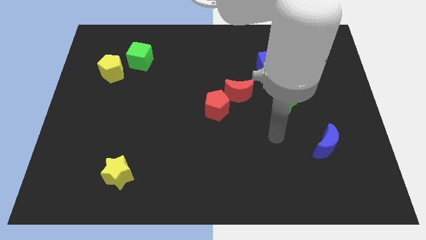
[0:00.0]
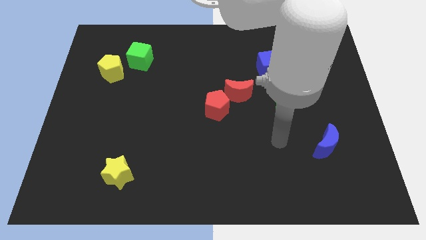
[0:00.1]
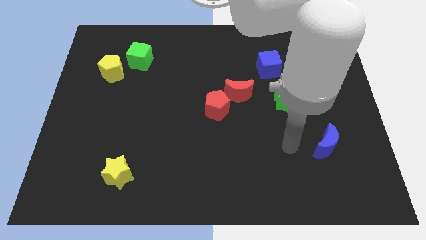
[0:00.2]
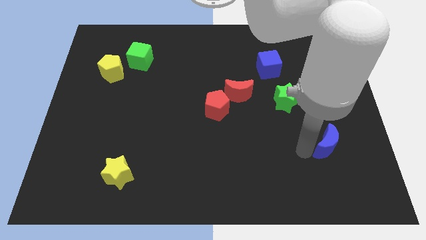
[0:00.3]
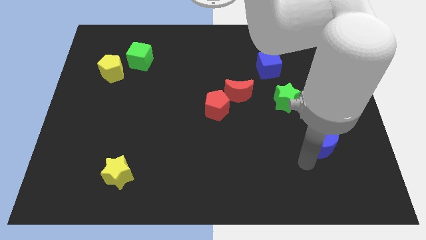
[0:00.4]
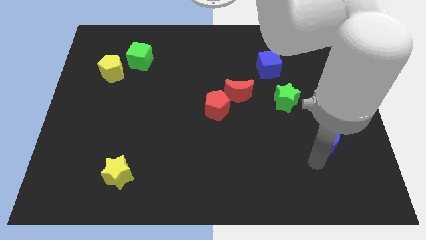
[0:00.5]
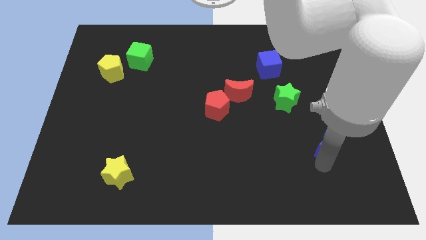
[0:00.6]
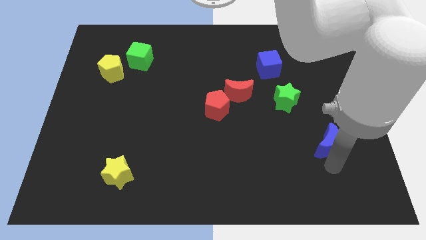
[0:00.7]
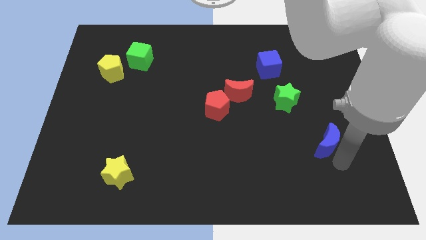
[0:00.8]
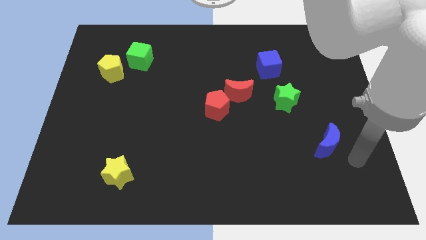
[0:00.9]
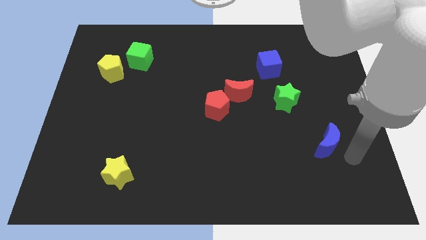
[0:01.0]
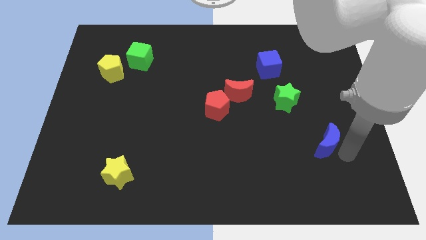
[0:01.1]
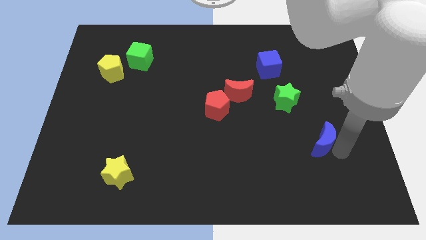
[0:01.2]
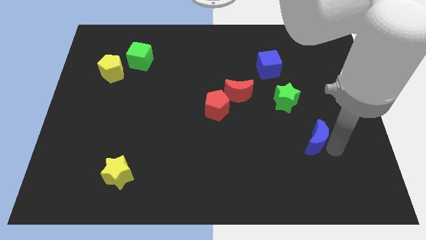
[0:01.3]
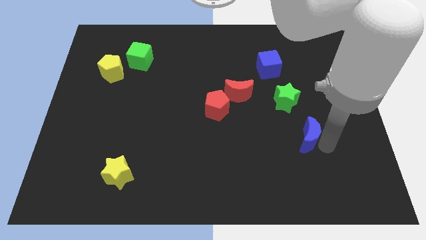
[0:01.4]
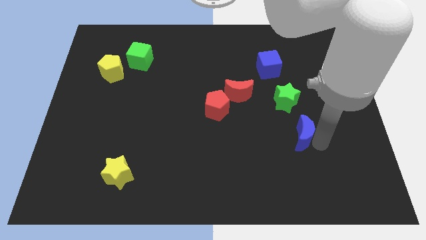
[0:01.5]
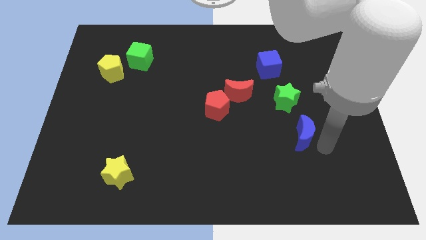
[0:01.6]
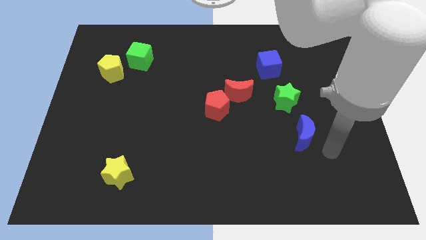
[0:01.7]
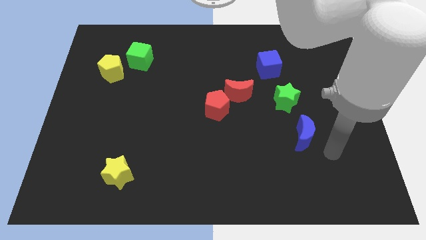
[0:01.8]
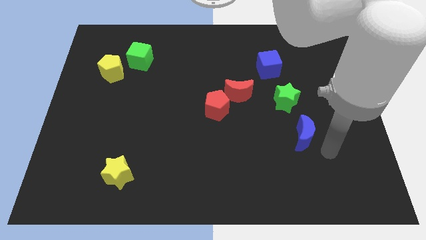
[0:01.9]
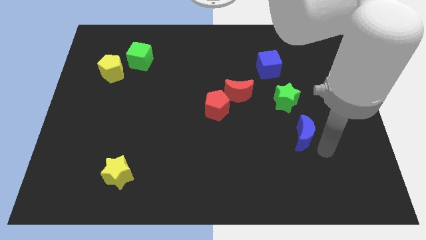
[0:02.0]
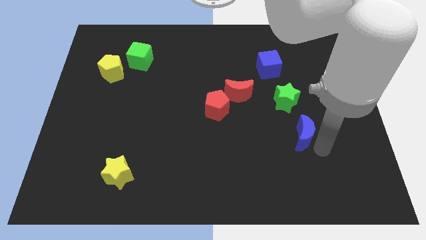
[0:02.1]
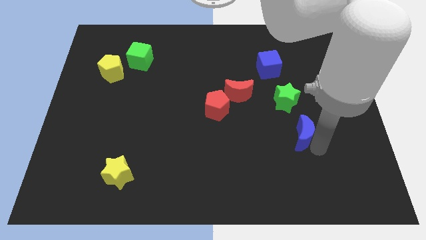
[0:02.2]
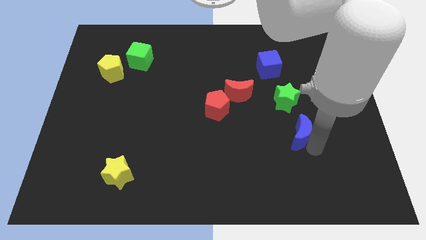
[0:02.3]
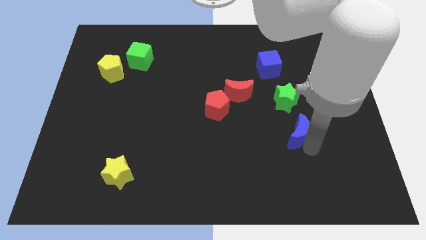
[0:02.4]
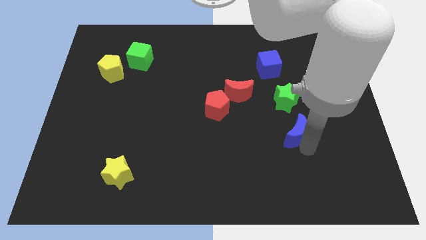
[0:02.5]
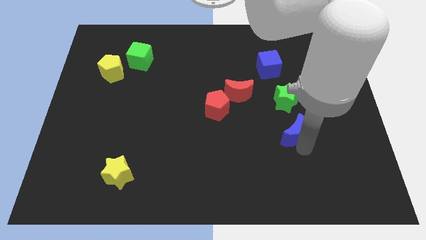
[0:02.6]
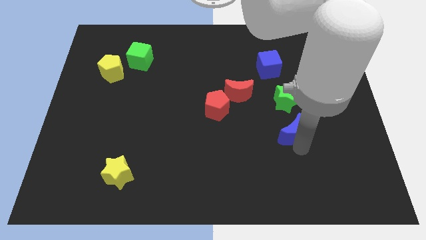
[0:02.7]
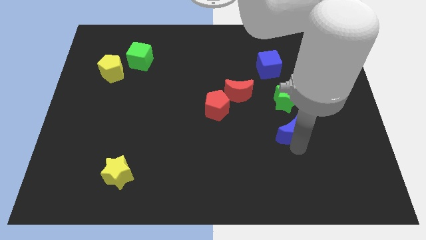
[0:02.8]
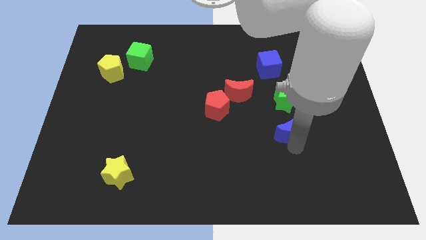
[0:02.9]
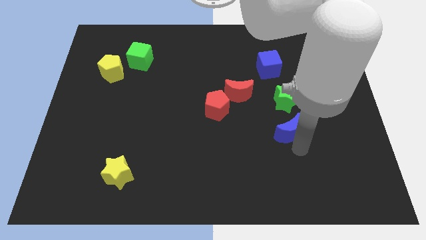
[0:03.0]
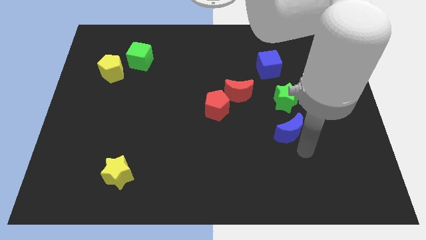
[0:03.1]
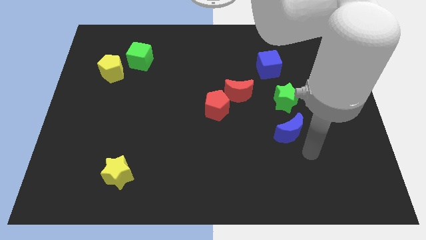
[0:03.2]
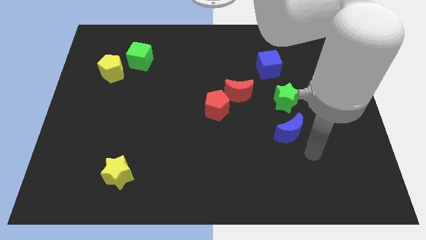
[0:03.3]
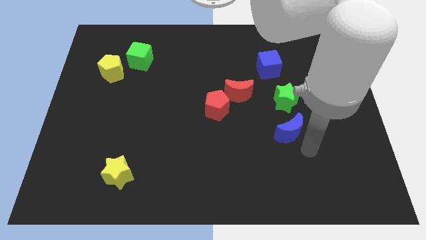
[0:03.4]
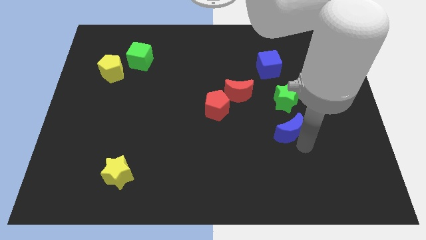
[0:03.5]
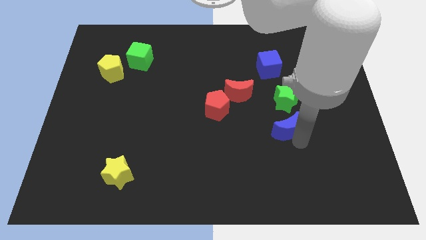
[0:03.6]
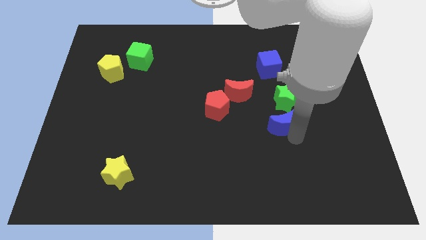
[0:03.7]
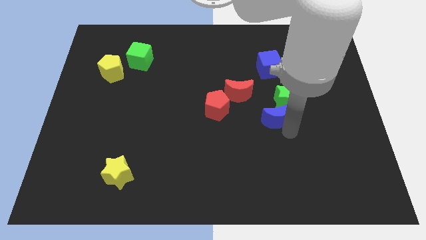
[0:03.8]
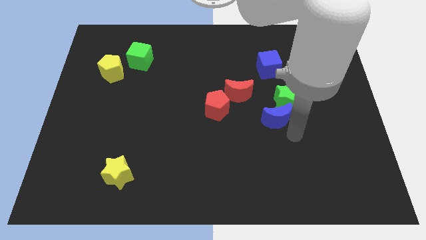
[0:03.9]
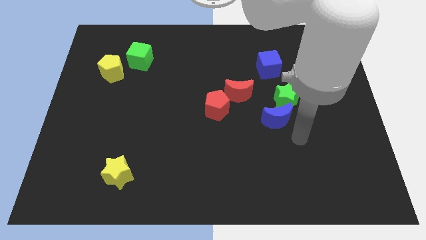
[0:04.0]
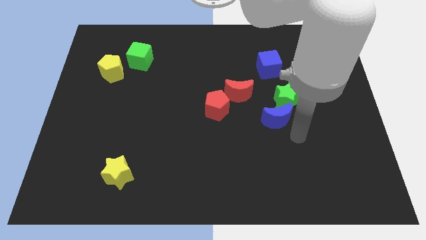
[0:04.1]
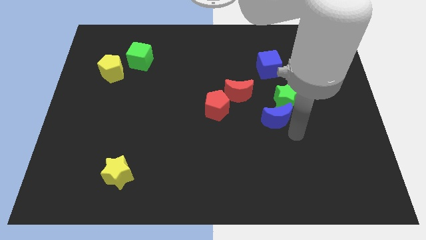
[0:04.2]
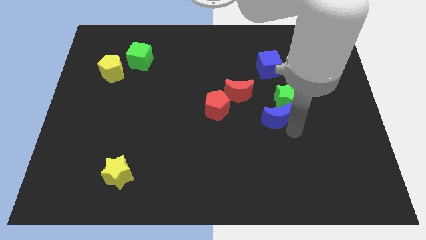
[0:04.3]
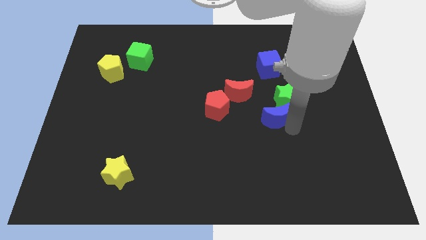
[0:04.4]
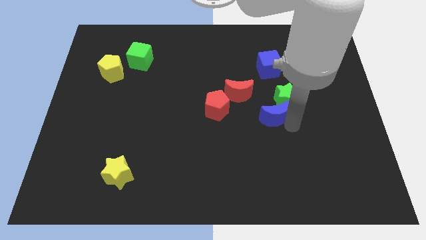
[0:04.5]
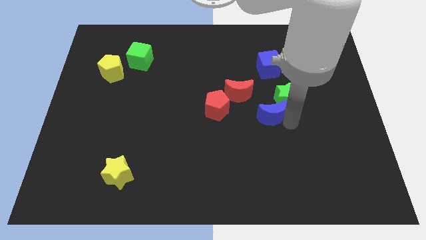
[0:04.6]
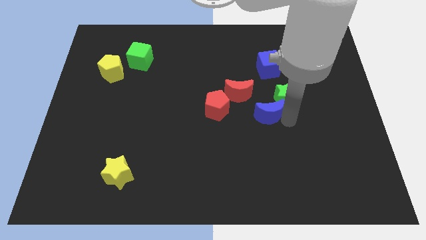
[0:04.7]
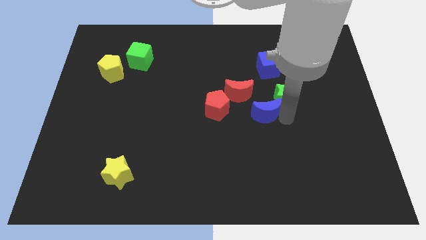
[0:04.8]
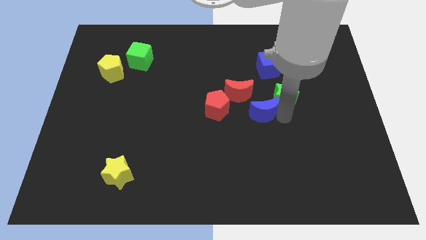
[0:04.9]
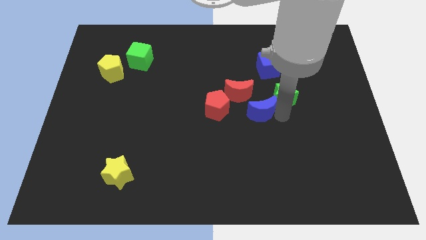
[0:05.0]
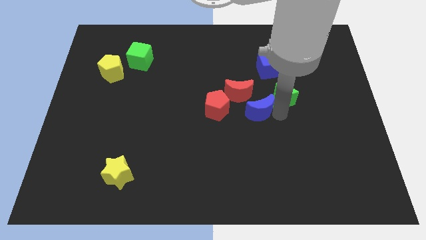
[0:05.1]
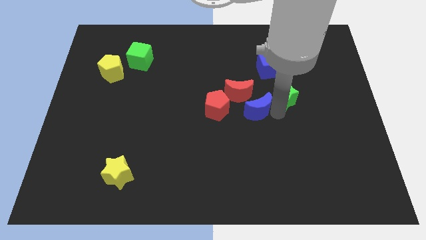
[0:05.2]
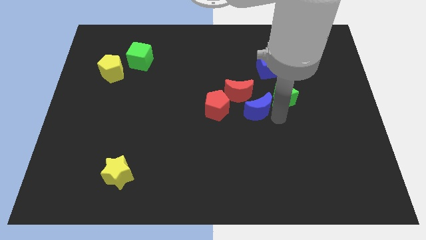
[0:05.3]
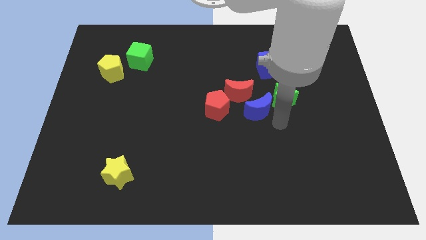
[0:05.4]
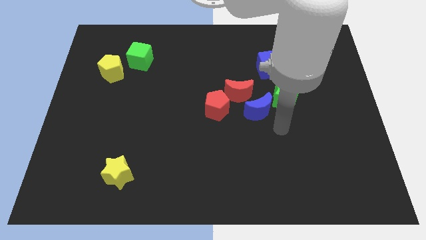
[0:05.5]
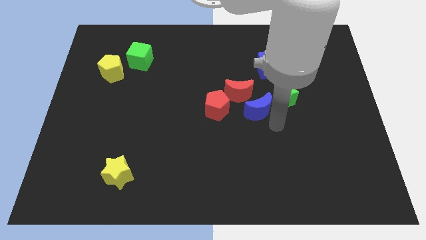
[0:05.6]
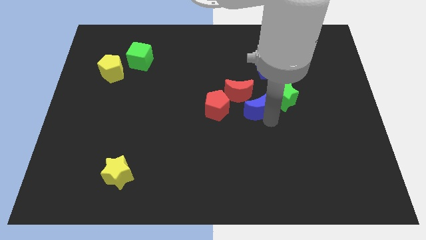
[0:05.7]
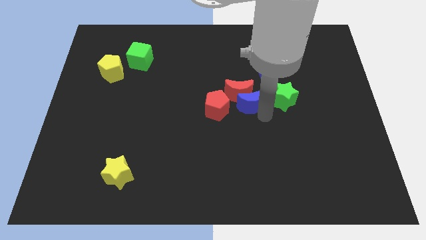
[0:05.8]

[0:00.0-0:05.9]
move the blue moon next to the red moon
